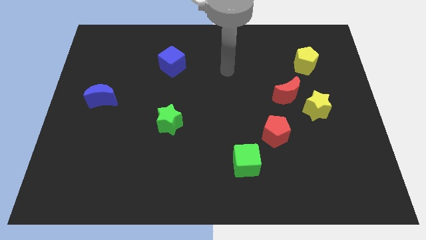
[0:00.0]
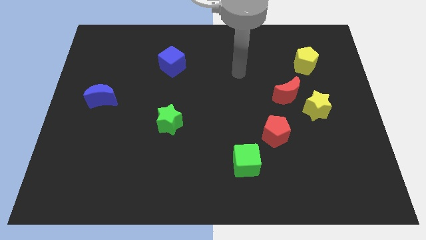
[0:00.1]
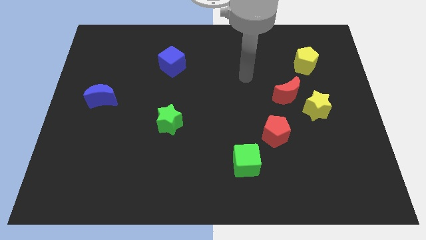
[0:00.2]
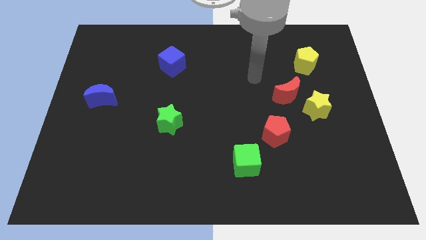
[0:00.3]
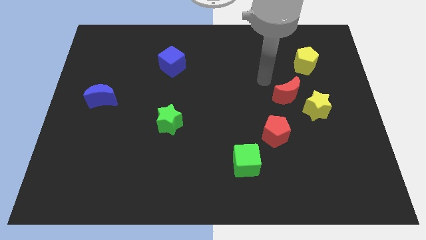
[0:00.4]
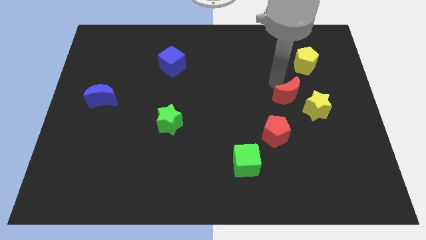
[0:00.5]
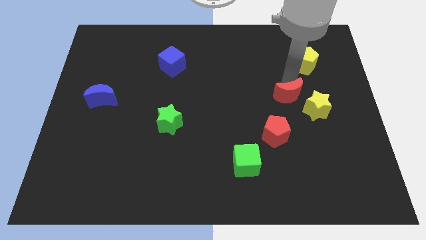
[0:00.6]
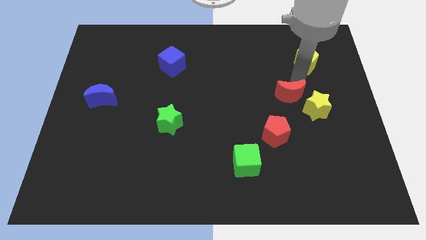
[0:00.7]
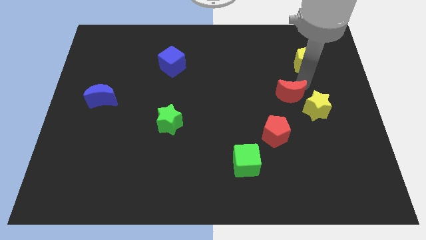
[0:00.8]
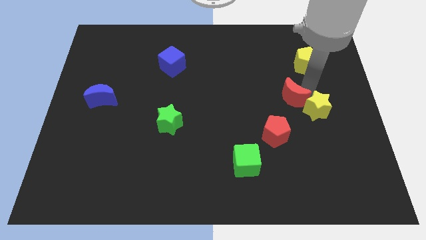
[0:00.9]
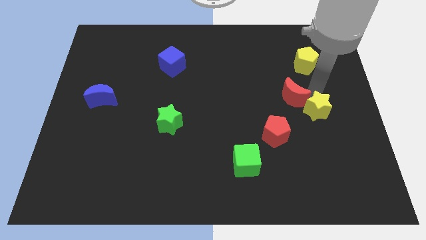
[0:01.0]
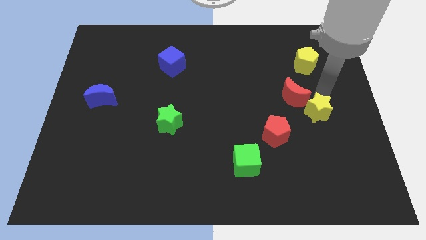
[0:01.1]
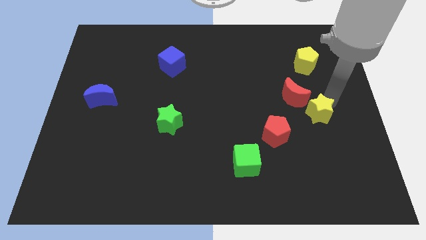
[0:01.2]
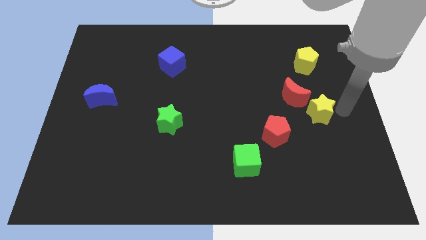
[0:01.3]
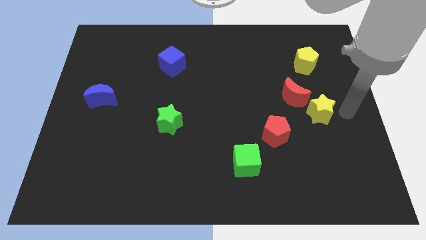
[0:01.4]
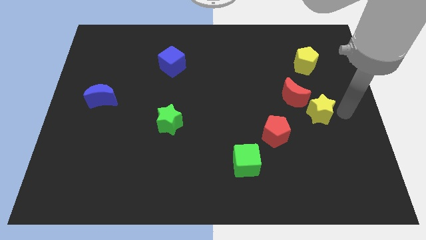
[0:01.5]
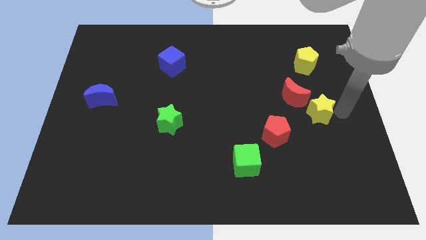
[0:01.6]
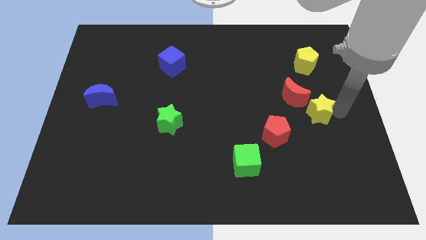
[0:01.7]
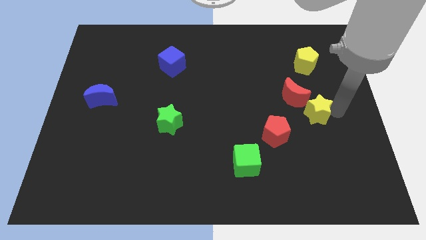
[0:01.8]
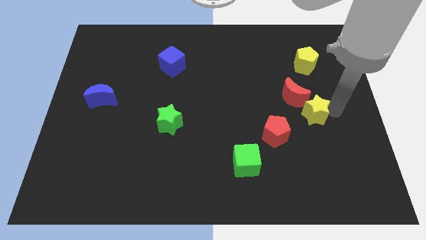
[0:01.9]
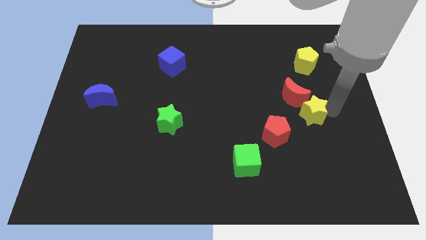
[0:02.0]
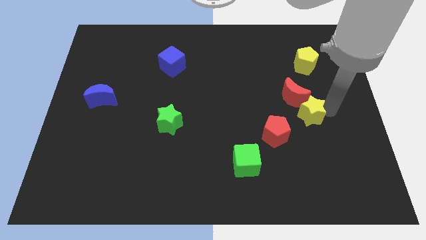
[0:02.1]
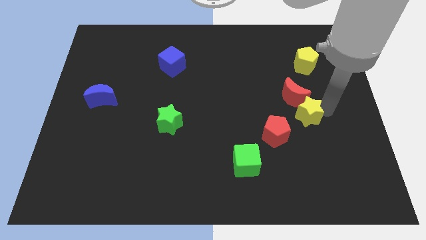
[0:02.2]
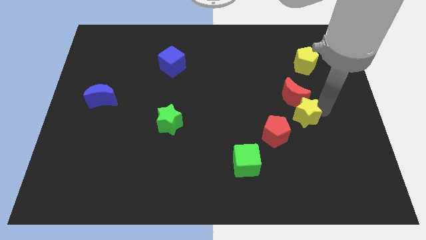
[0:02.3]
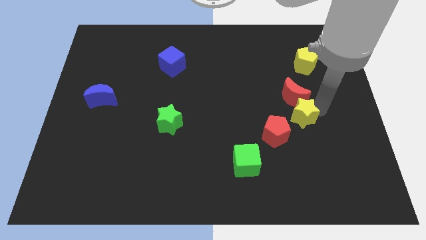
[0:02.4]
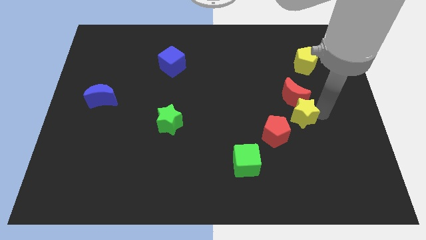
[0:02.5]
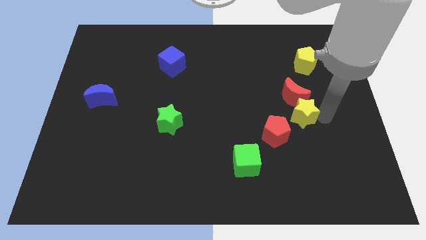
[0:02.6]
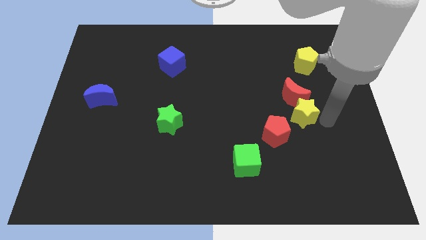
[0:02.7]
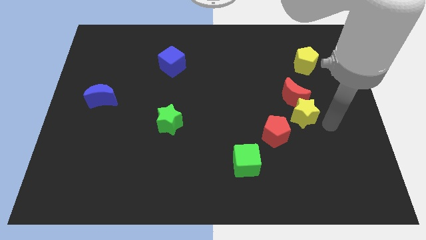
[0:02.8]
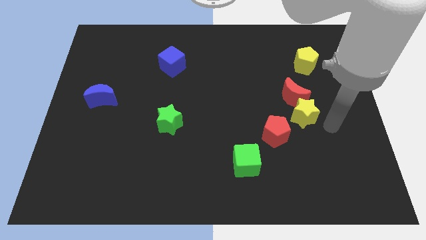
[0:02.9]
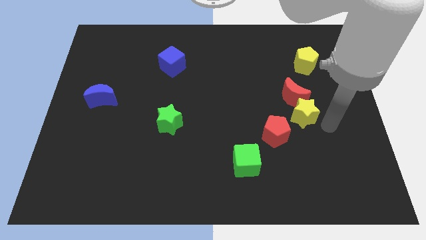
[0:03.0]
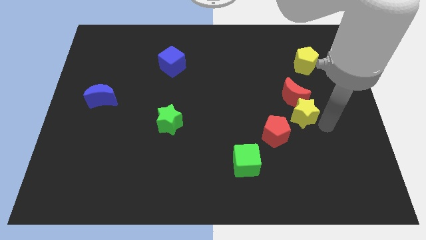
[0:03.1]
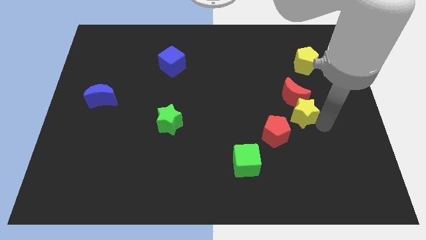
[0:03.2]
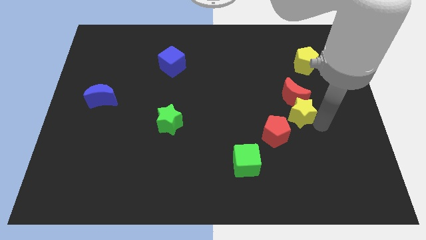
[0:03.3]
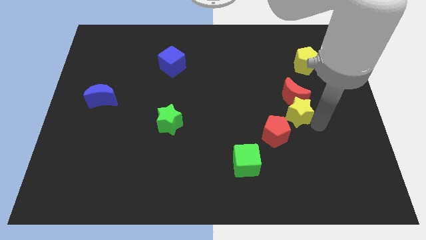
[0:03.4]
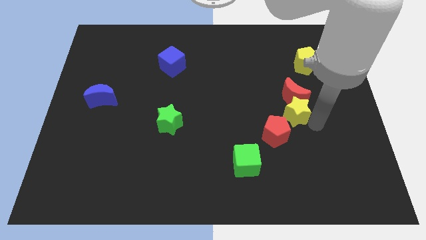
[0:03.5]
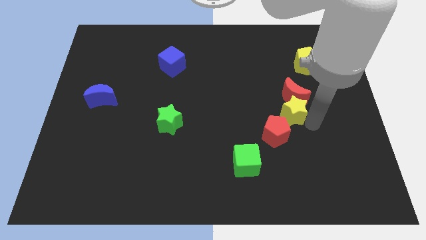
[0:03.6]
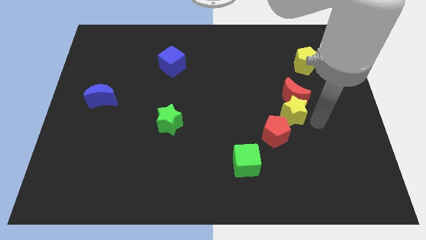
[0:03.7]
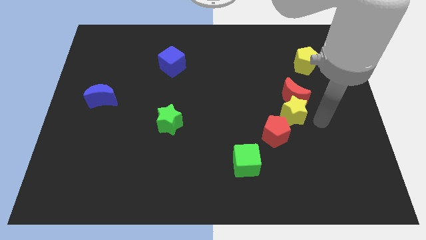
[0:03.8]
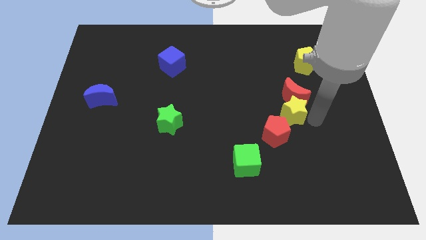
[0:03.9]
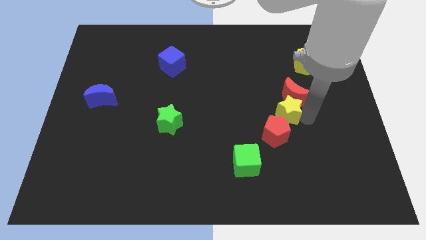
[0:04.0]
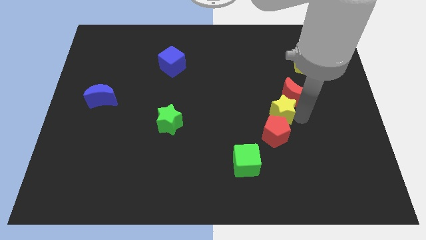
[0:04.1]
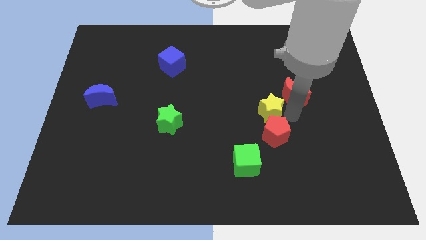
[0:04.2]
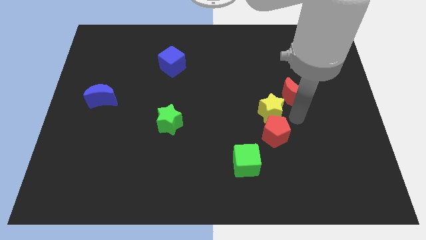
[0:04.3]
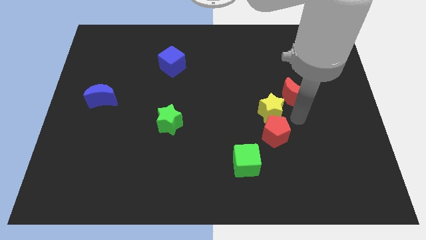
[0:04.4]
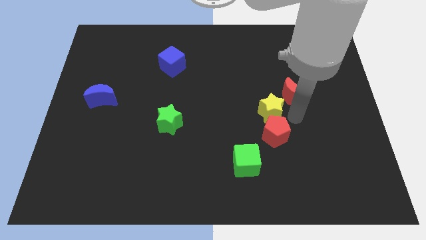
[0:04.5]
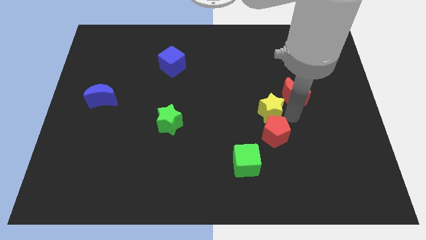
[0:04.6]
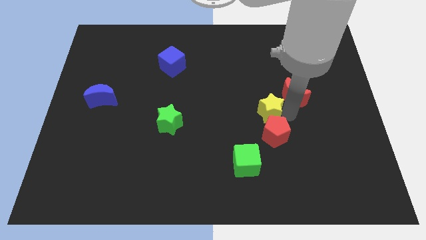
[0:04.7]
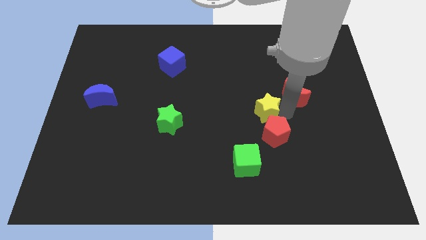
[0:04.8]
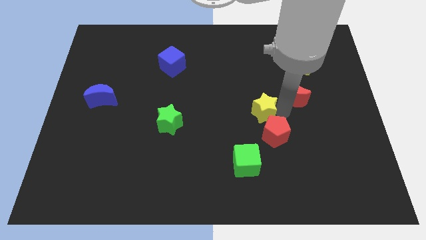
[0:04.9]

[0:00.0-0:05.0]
push the yellow star to the middle of the board

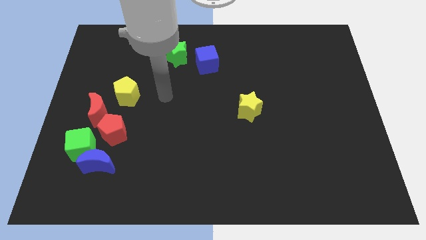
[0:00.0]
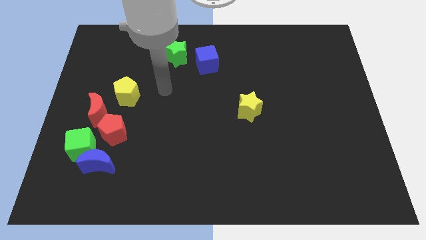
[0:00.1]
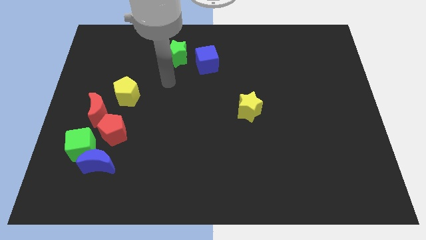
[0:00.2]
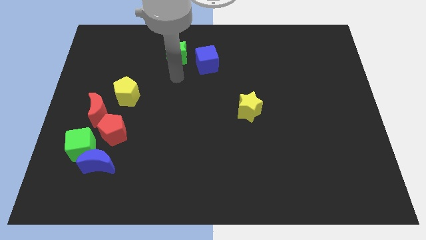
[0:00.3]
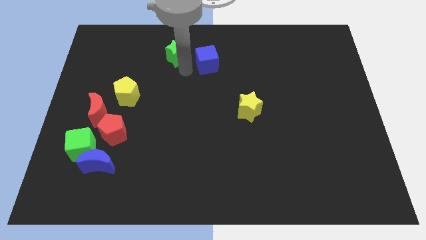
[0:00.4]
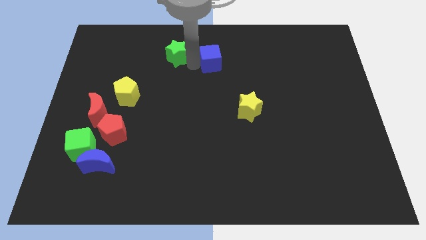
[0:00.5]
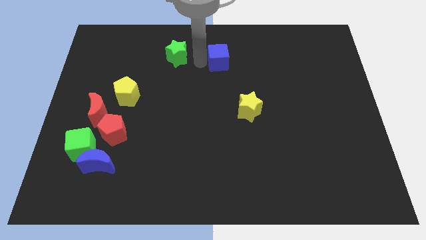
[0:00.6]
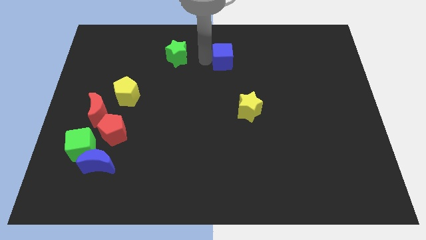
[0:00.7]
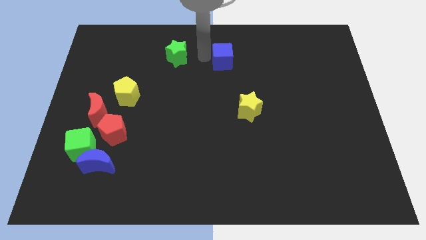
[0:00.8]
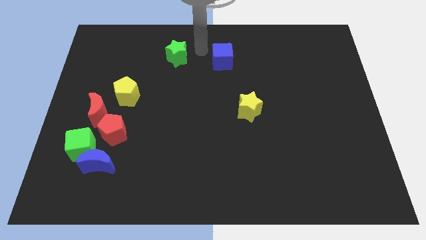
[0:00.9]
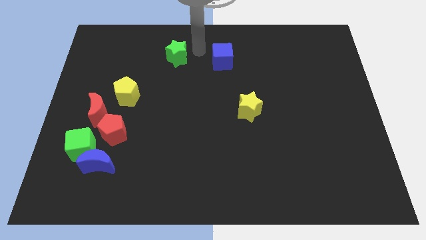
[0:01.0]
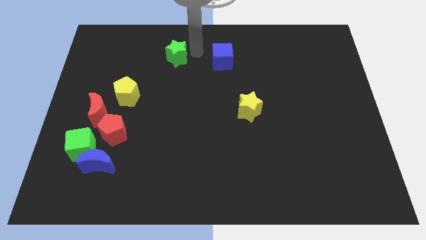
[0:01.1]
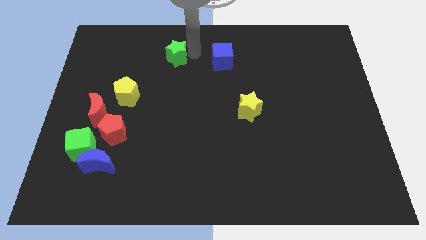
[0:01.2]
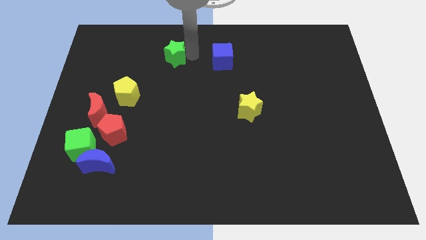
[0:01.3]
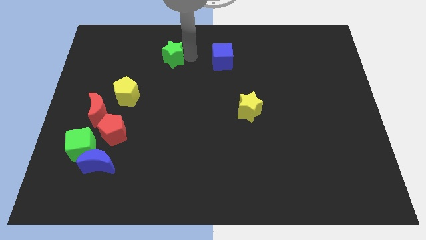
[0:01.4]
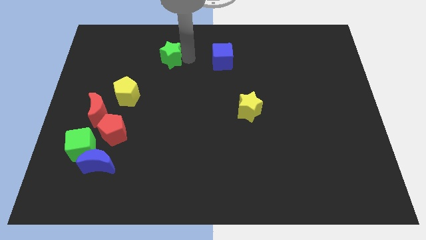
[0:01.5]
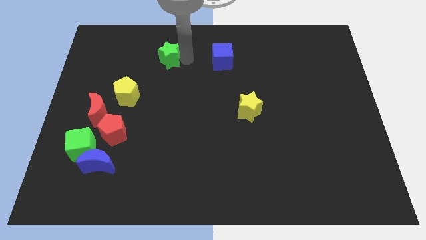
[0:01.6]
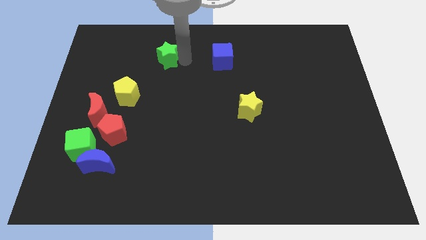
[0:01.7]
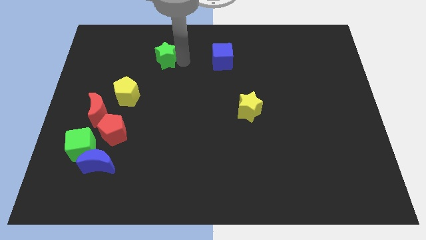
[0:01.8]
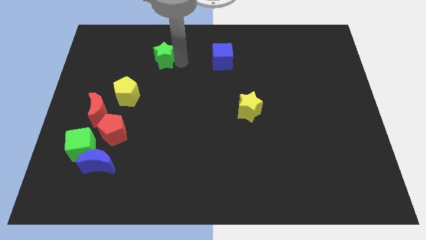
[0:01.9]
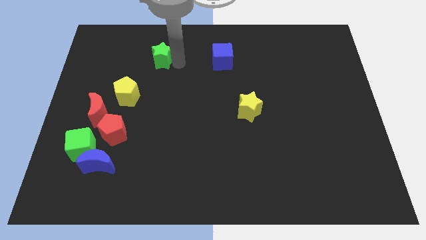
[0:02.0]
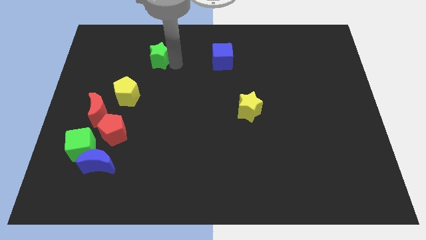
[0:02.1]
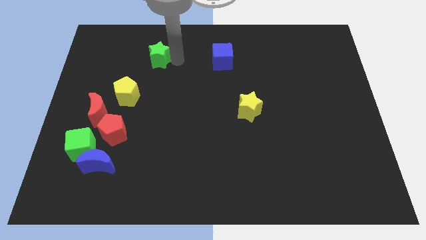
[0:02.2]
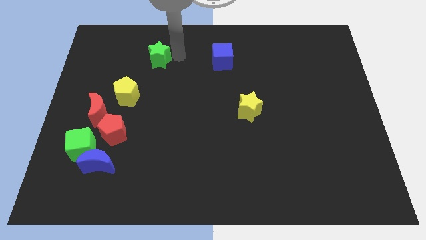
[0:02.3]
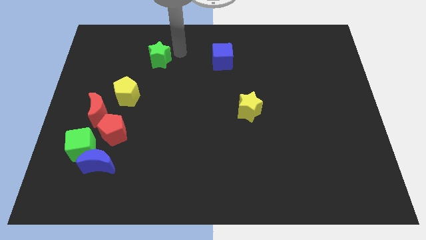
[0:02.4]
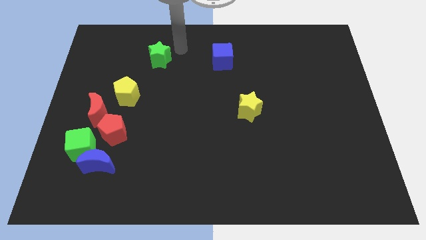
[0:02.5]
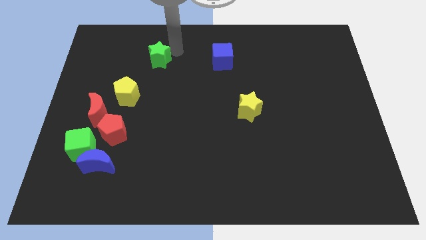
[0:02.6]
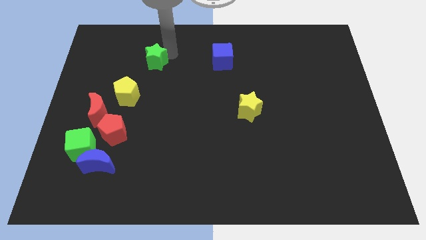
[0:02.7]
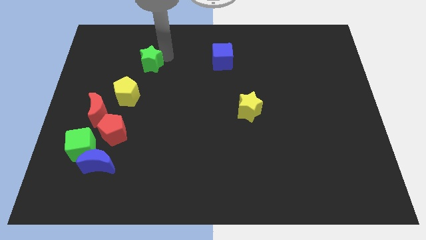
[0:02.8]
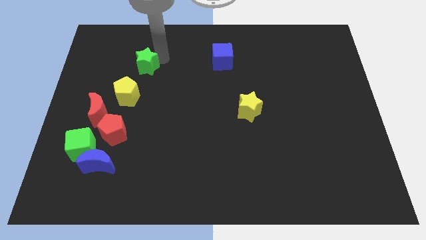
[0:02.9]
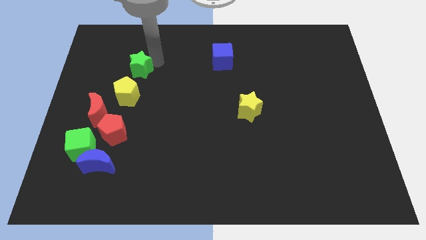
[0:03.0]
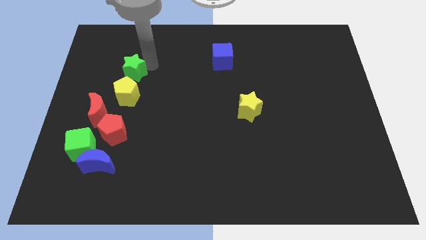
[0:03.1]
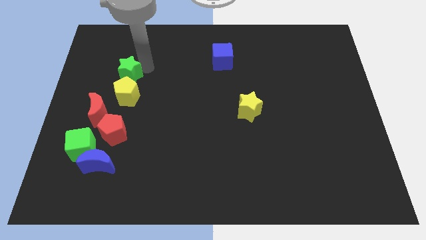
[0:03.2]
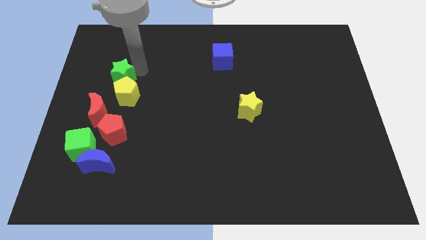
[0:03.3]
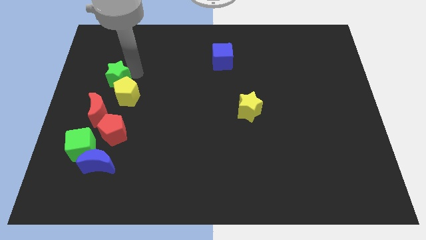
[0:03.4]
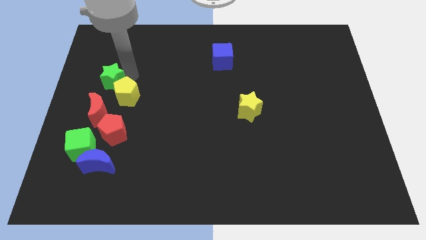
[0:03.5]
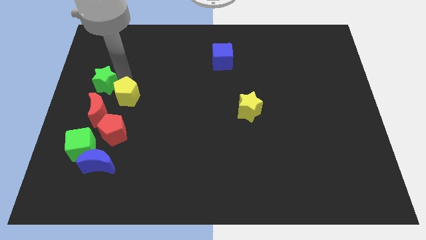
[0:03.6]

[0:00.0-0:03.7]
slide the green star to the center left
